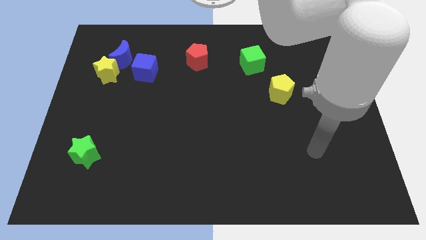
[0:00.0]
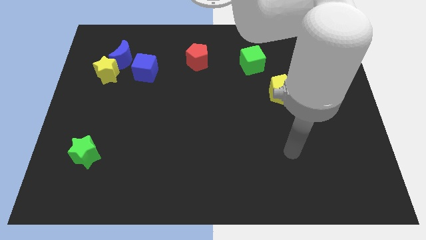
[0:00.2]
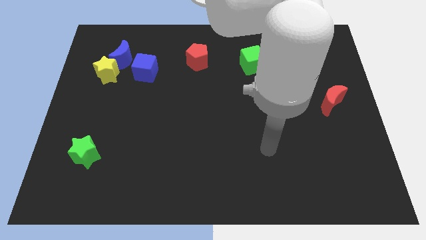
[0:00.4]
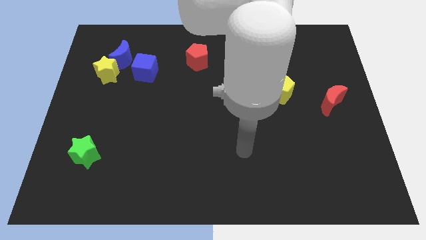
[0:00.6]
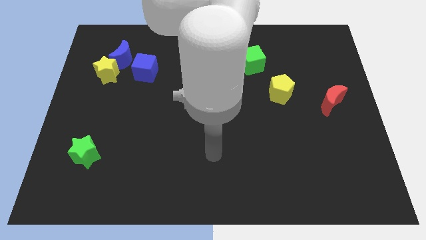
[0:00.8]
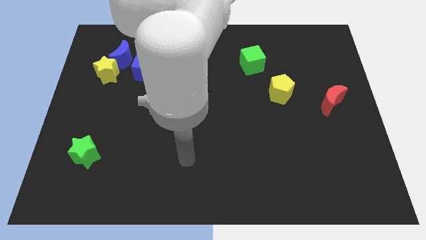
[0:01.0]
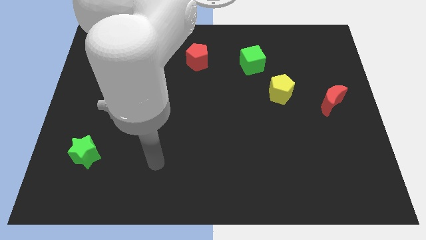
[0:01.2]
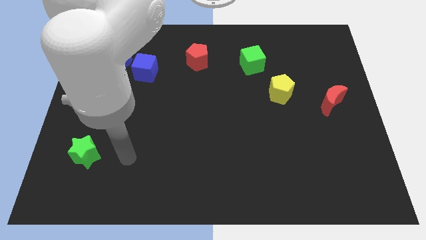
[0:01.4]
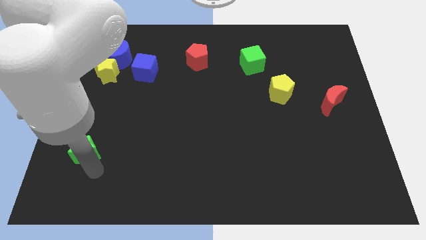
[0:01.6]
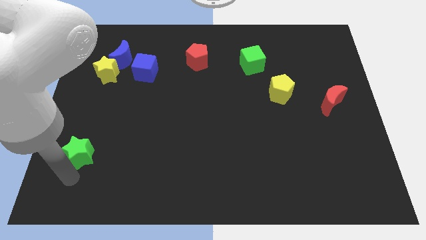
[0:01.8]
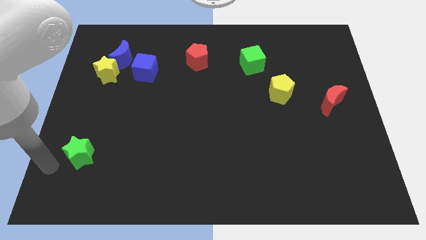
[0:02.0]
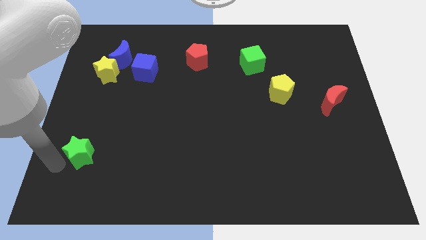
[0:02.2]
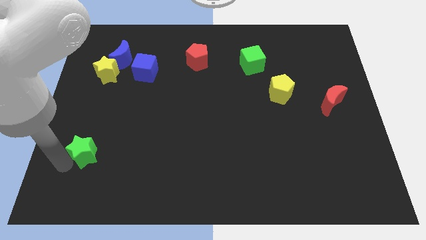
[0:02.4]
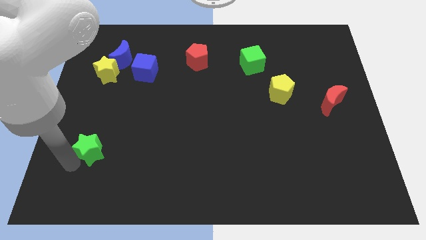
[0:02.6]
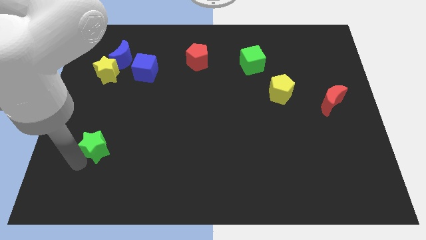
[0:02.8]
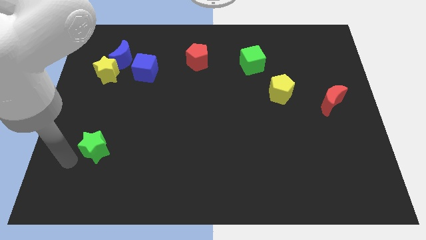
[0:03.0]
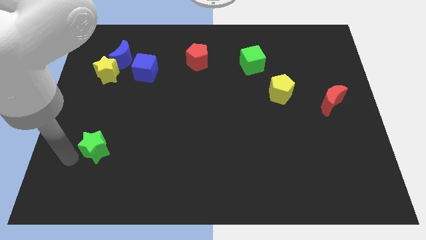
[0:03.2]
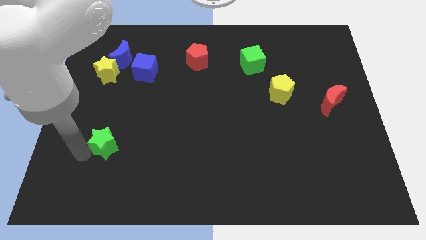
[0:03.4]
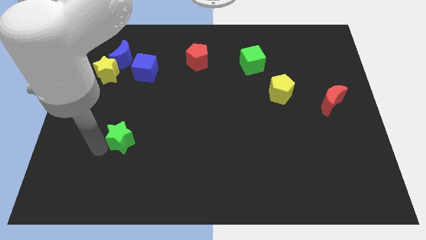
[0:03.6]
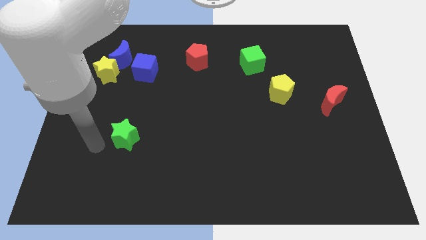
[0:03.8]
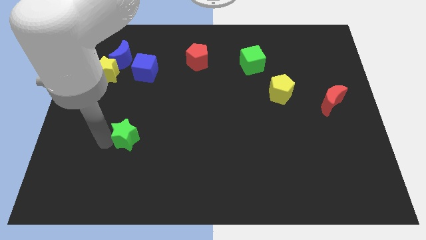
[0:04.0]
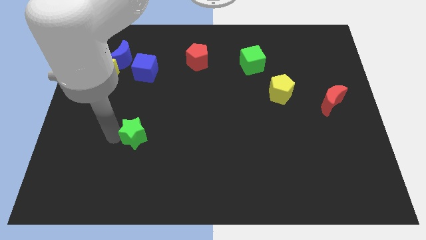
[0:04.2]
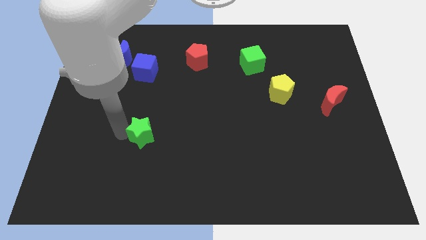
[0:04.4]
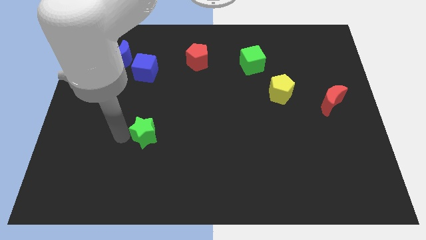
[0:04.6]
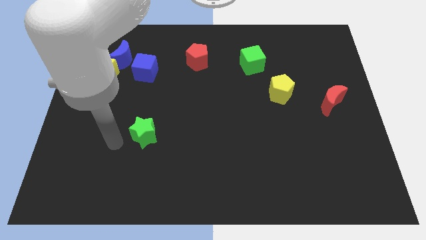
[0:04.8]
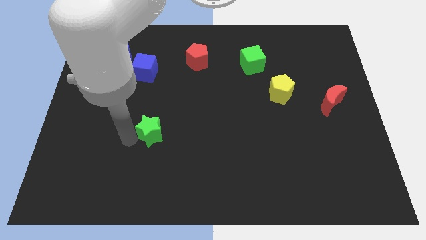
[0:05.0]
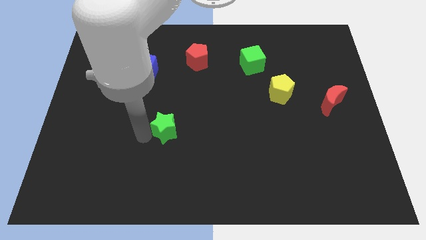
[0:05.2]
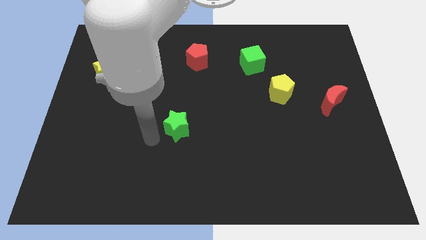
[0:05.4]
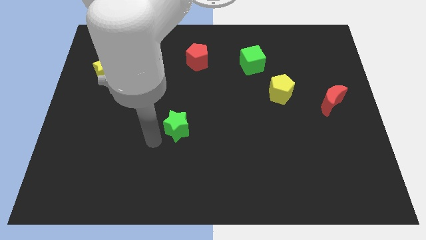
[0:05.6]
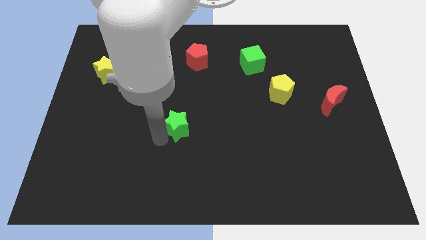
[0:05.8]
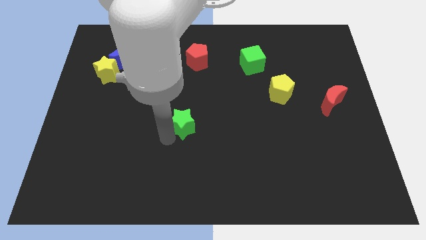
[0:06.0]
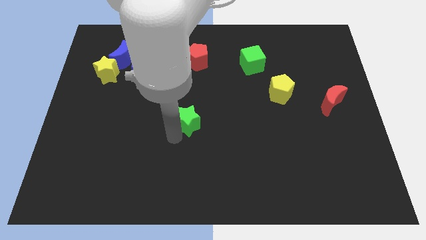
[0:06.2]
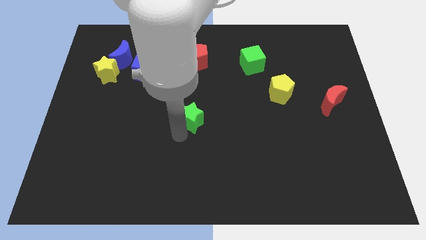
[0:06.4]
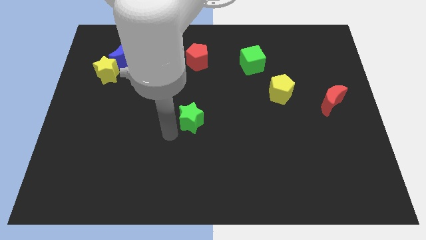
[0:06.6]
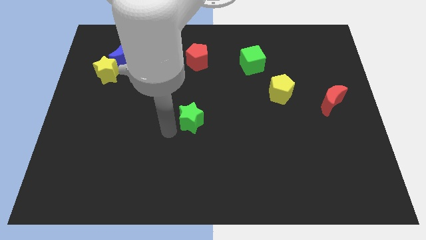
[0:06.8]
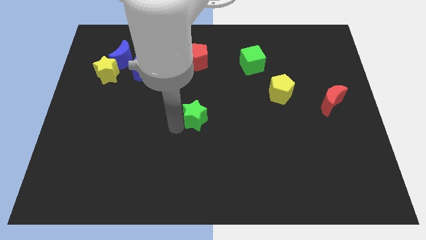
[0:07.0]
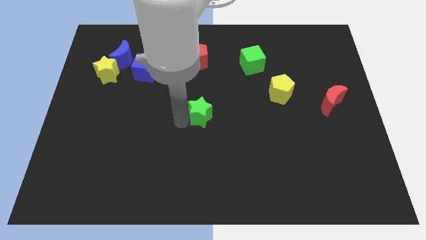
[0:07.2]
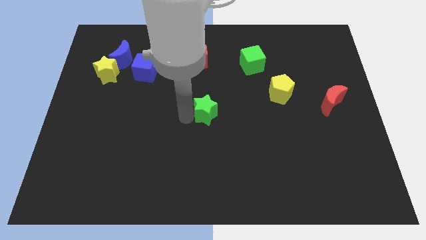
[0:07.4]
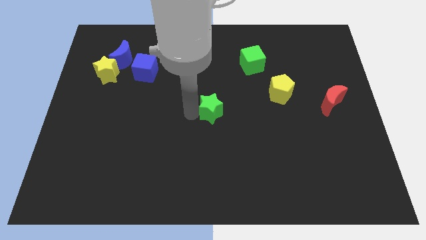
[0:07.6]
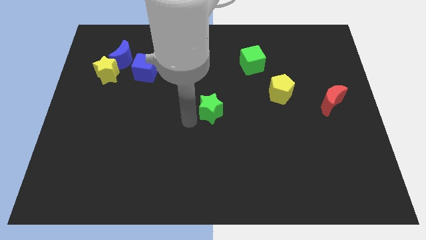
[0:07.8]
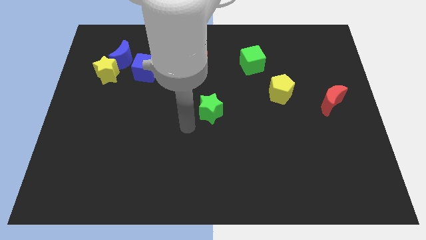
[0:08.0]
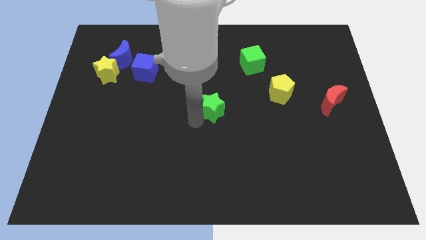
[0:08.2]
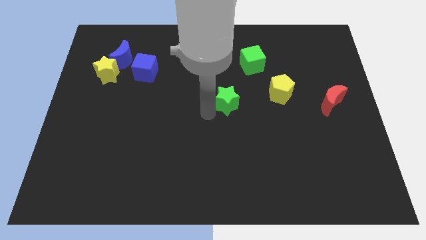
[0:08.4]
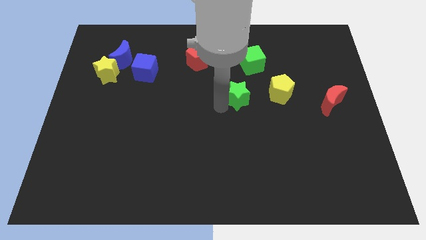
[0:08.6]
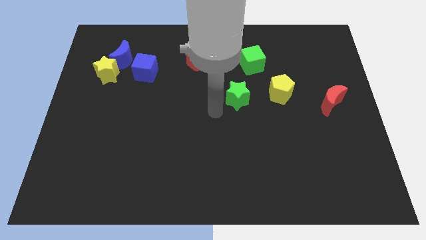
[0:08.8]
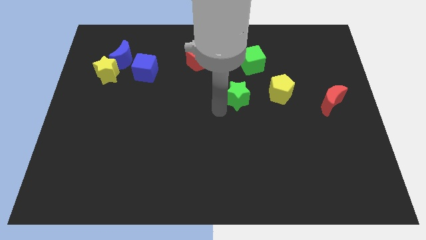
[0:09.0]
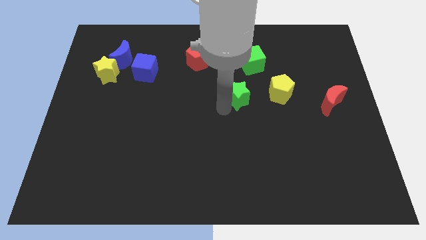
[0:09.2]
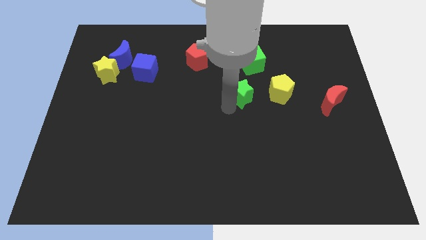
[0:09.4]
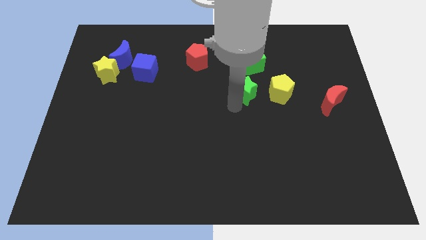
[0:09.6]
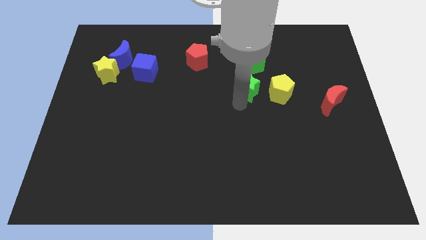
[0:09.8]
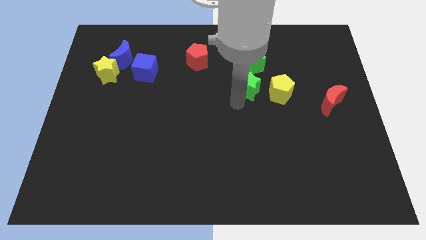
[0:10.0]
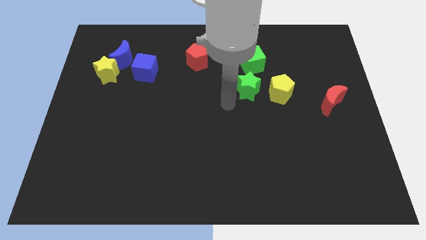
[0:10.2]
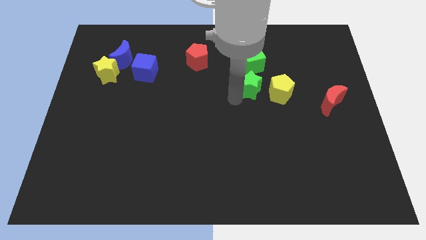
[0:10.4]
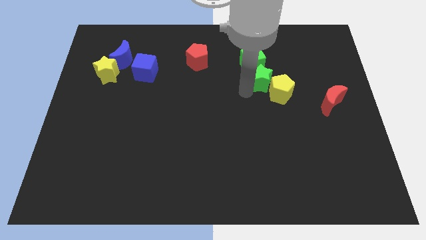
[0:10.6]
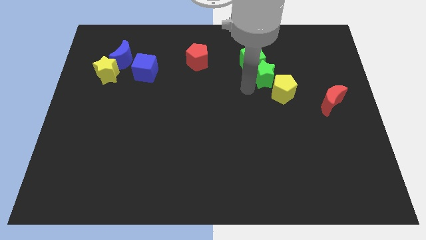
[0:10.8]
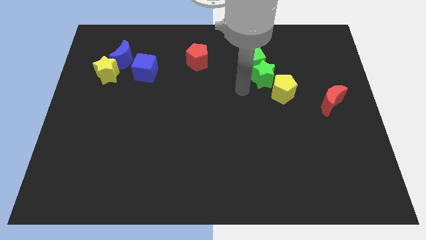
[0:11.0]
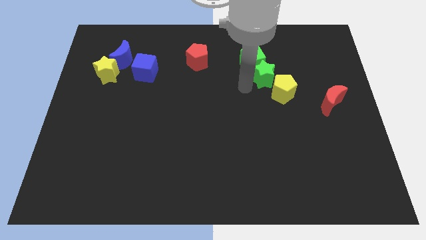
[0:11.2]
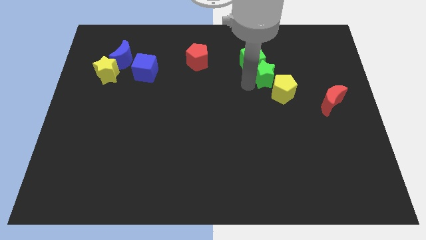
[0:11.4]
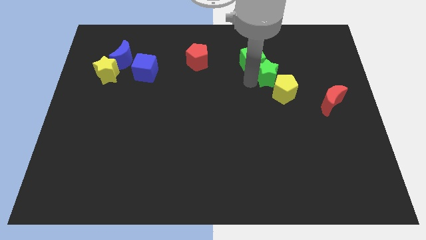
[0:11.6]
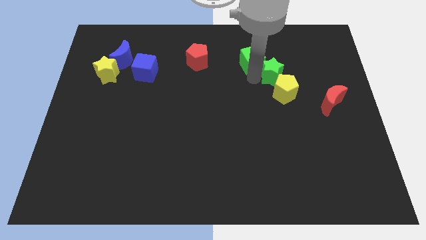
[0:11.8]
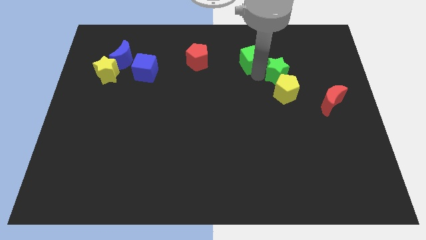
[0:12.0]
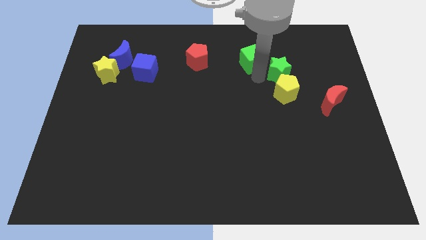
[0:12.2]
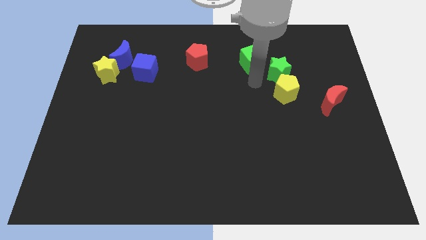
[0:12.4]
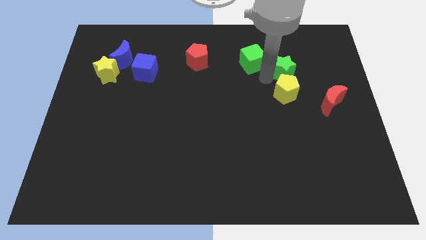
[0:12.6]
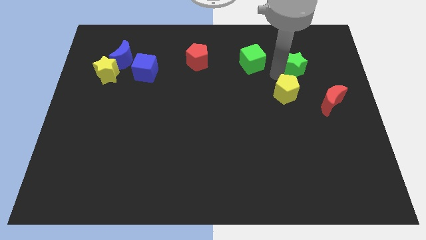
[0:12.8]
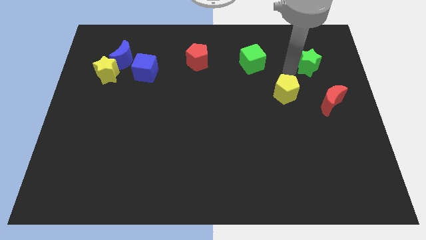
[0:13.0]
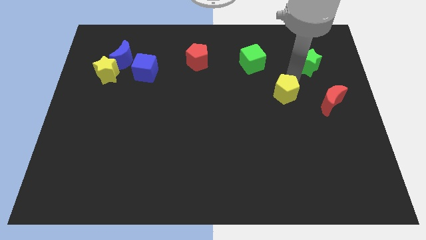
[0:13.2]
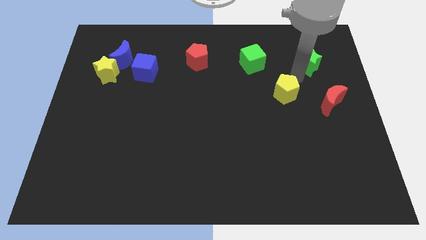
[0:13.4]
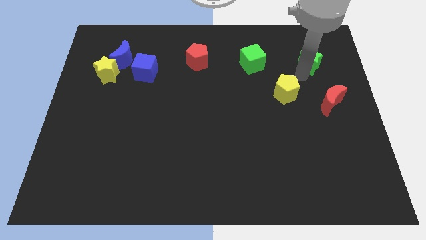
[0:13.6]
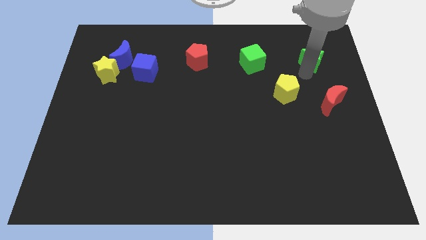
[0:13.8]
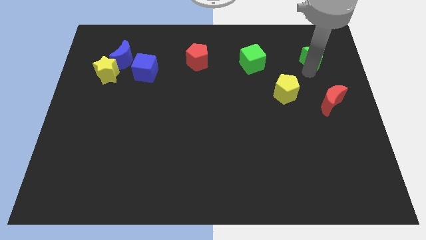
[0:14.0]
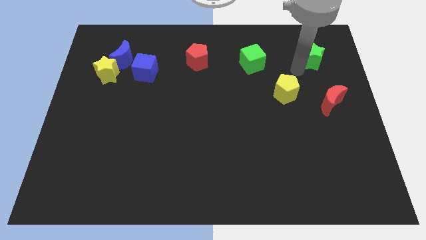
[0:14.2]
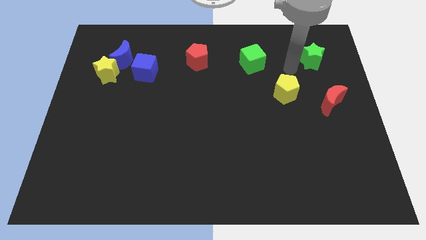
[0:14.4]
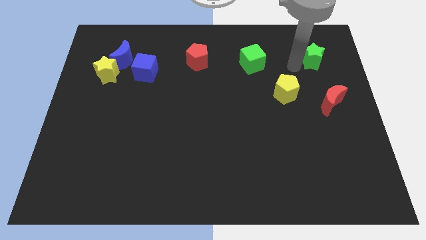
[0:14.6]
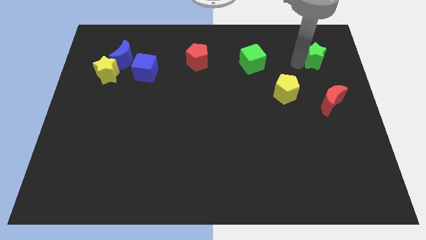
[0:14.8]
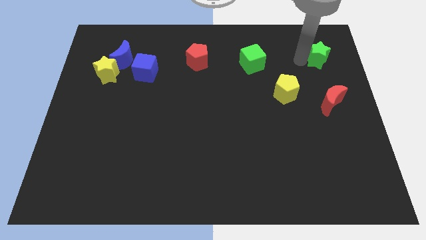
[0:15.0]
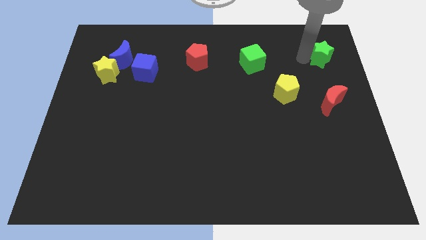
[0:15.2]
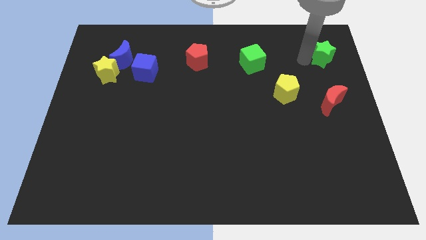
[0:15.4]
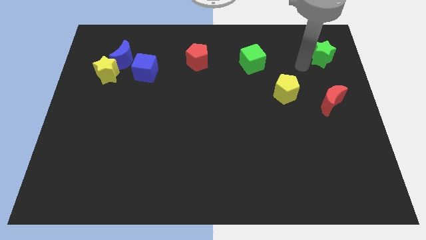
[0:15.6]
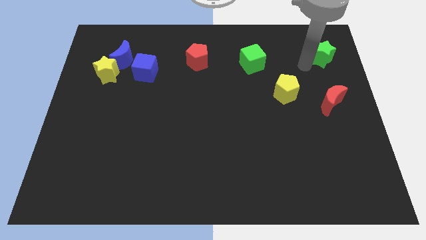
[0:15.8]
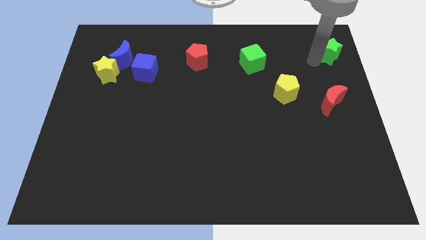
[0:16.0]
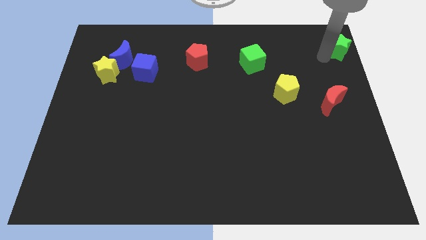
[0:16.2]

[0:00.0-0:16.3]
put the green star to the upper right corner
